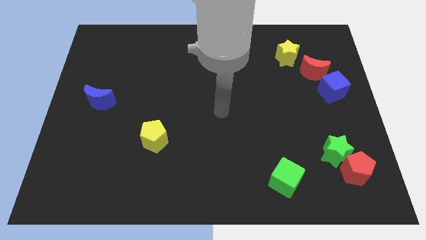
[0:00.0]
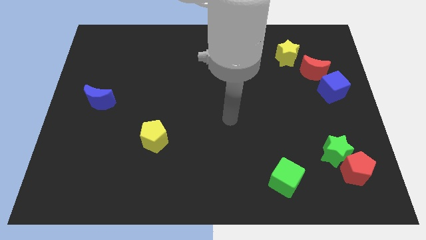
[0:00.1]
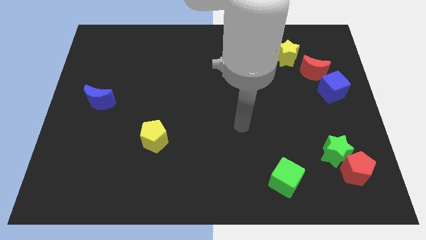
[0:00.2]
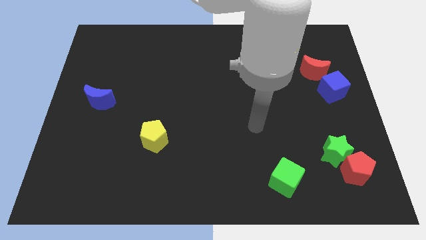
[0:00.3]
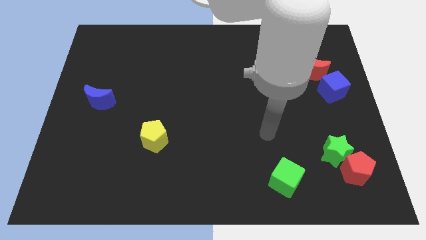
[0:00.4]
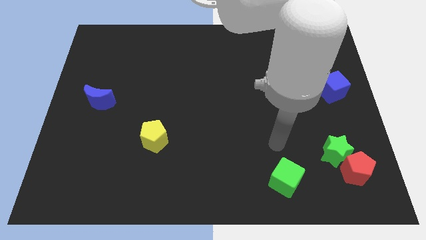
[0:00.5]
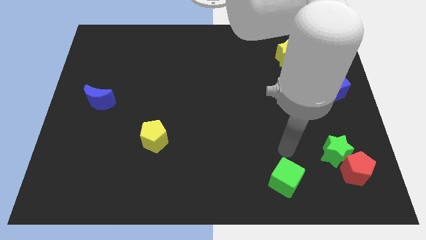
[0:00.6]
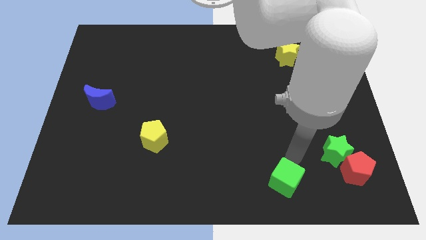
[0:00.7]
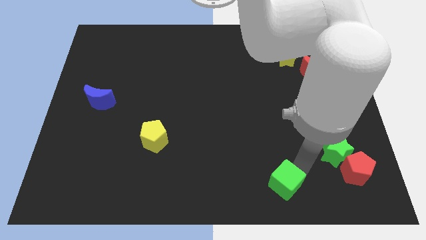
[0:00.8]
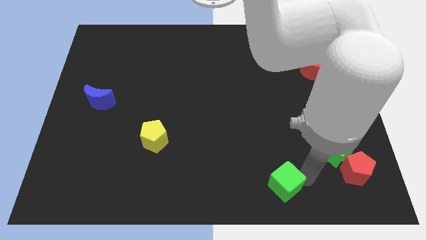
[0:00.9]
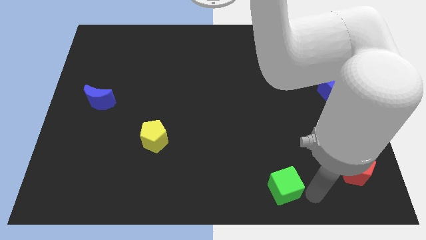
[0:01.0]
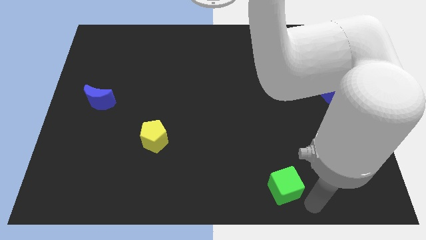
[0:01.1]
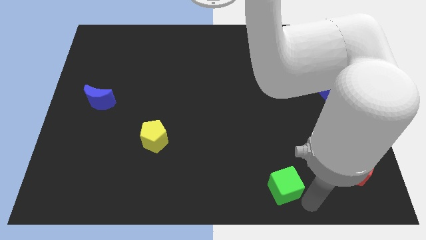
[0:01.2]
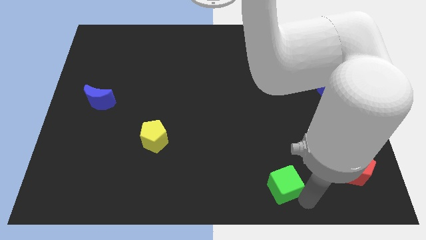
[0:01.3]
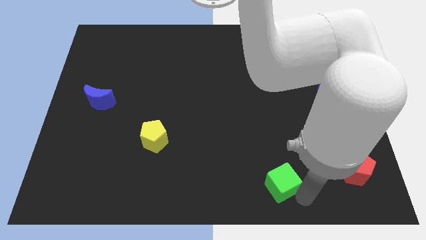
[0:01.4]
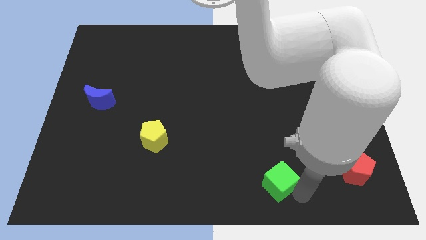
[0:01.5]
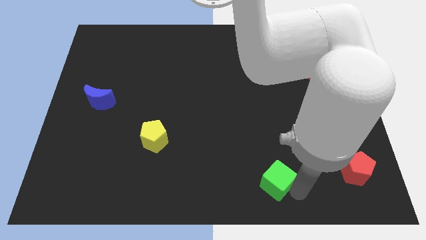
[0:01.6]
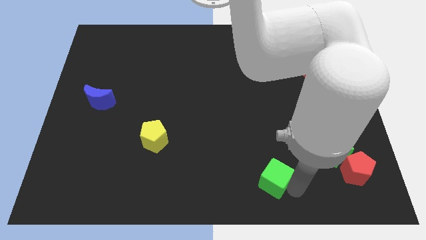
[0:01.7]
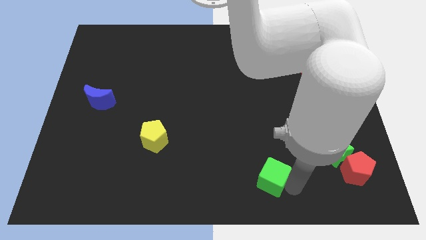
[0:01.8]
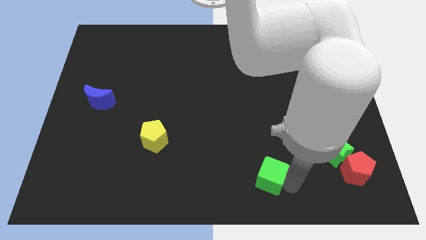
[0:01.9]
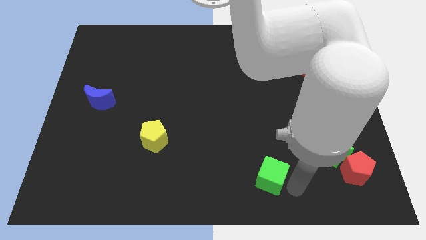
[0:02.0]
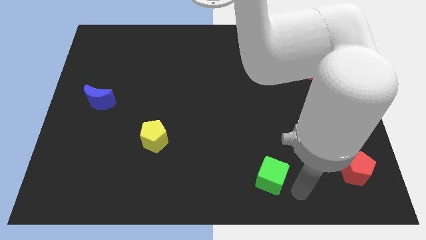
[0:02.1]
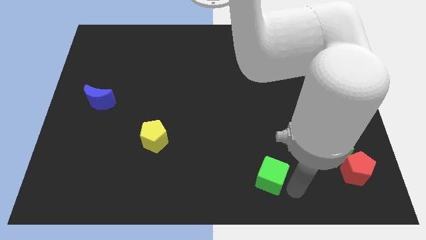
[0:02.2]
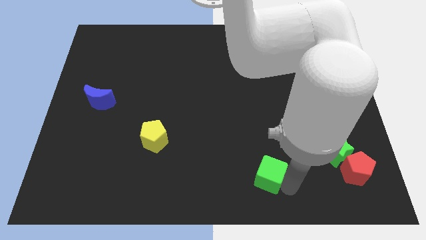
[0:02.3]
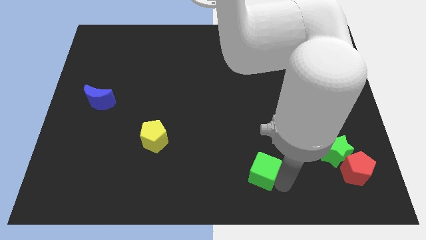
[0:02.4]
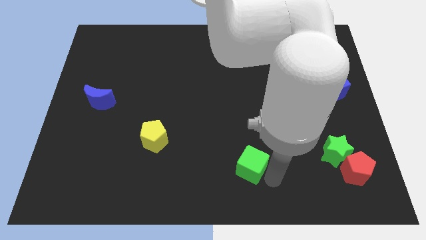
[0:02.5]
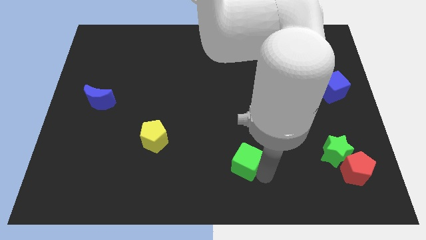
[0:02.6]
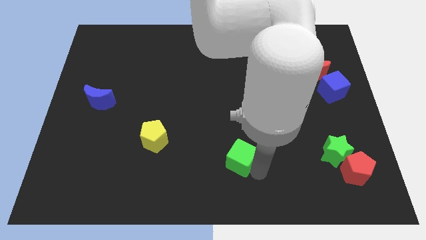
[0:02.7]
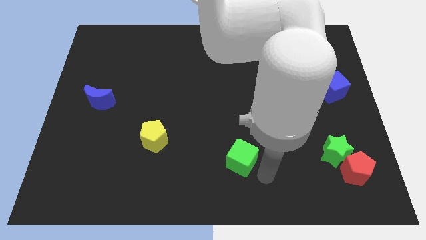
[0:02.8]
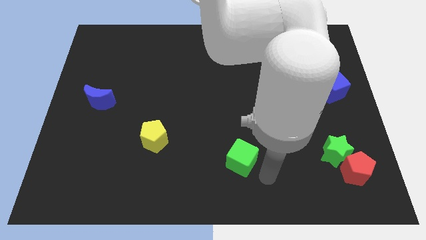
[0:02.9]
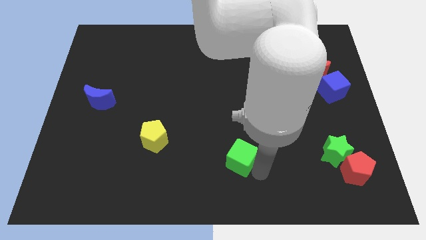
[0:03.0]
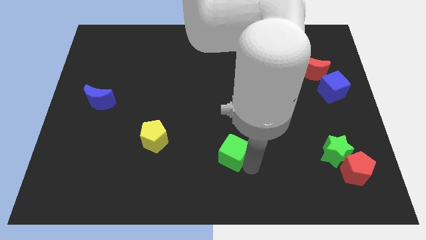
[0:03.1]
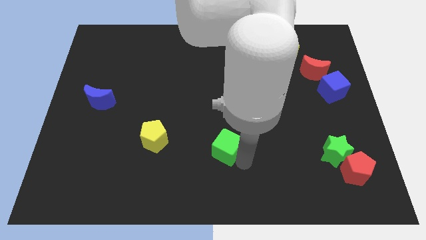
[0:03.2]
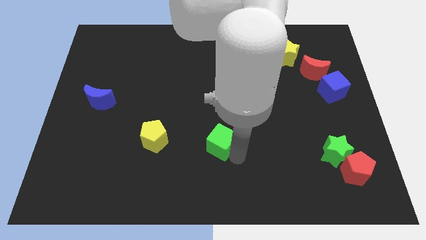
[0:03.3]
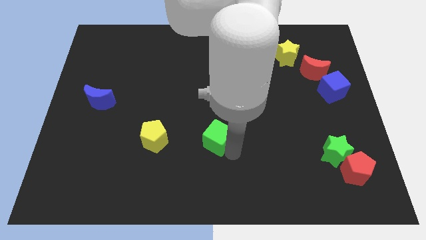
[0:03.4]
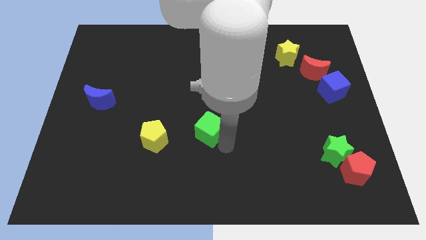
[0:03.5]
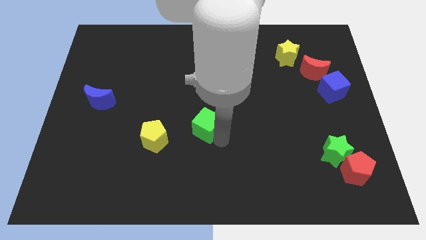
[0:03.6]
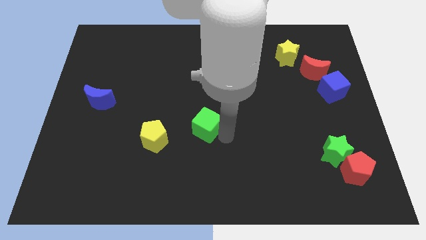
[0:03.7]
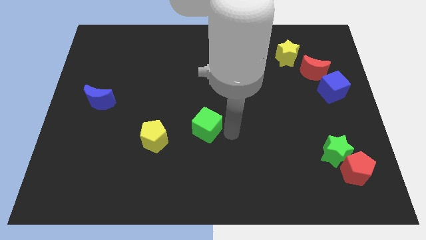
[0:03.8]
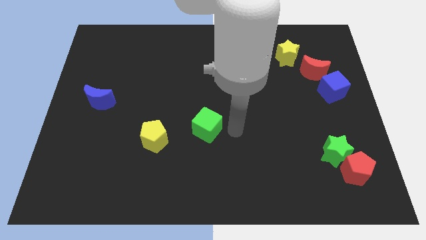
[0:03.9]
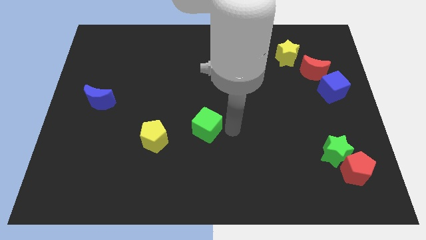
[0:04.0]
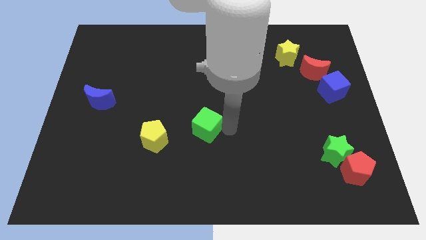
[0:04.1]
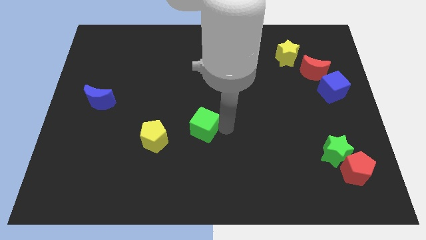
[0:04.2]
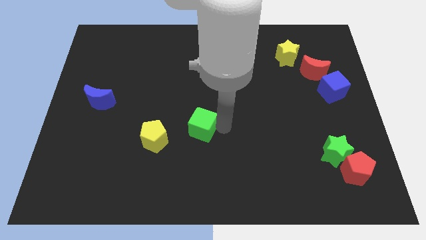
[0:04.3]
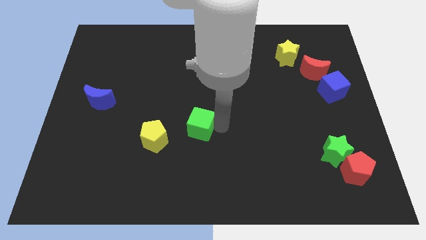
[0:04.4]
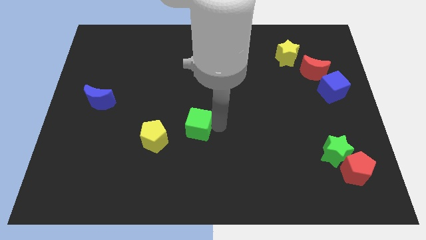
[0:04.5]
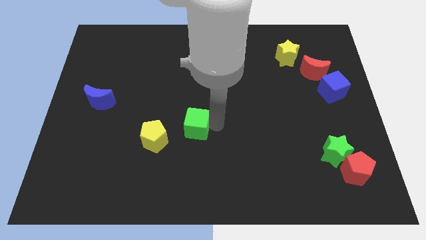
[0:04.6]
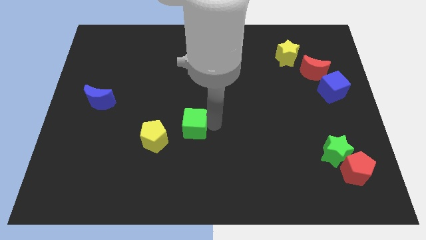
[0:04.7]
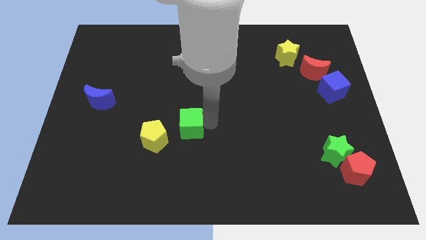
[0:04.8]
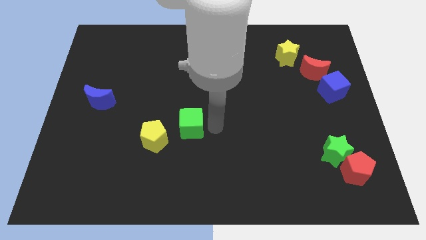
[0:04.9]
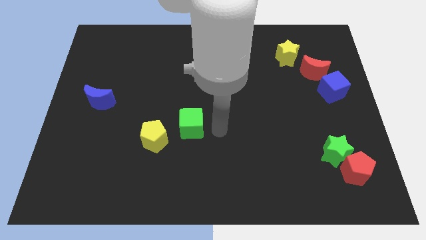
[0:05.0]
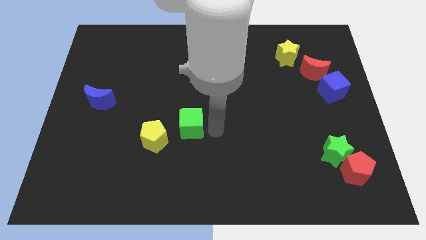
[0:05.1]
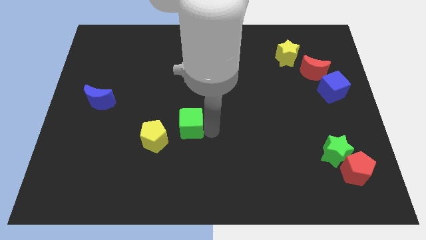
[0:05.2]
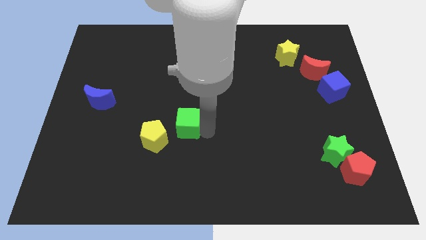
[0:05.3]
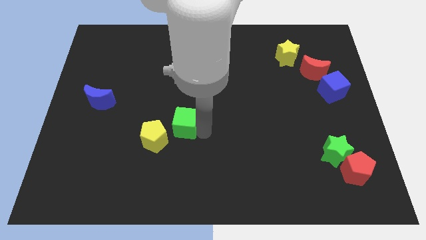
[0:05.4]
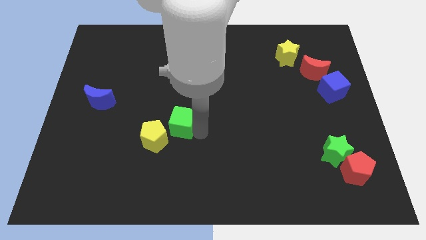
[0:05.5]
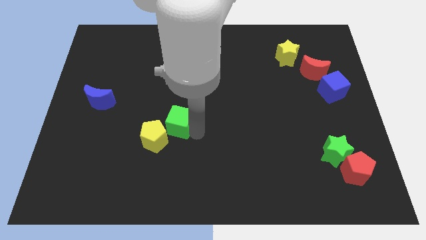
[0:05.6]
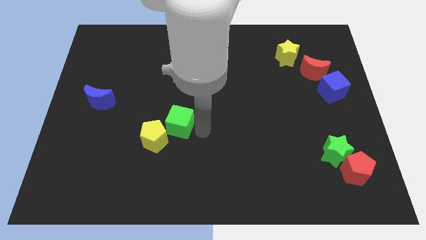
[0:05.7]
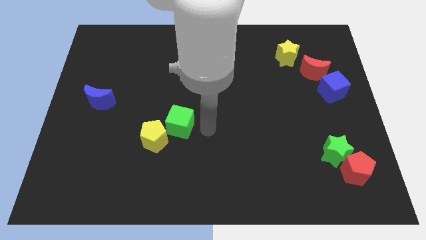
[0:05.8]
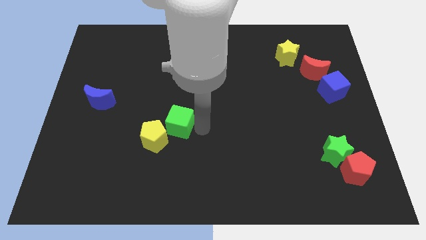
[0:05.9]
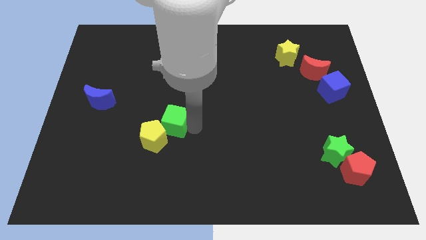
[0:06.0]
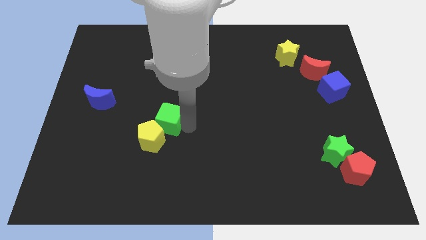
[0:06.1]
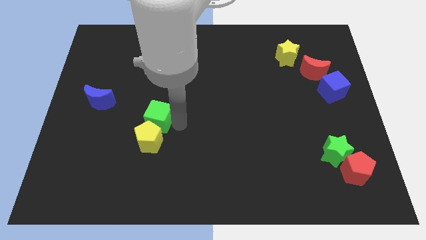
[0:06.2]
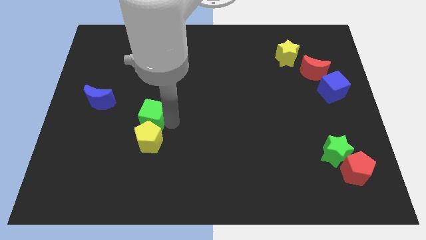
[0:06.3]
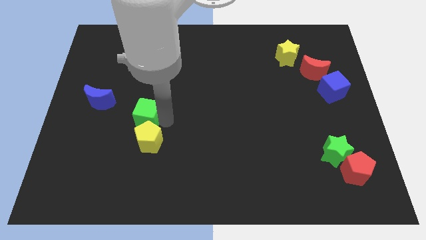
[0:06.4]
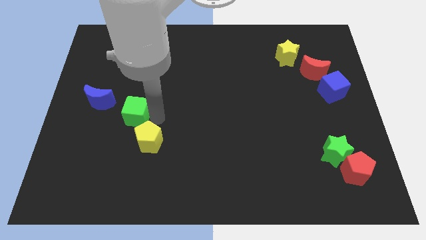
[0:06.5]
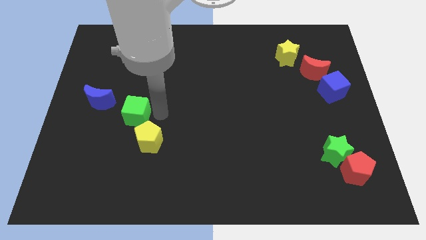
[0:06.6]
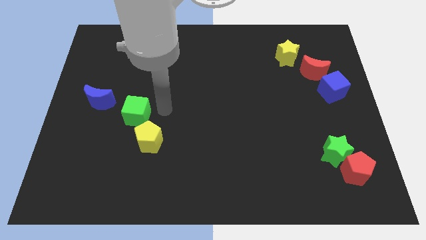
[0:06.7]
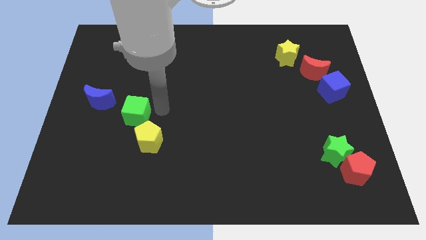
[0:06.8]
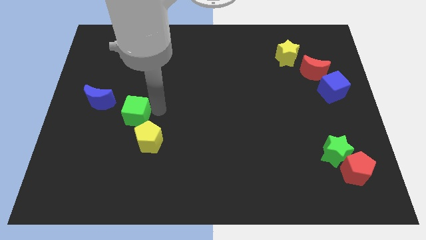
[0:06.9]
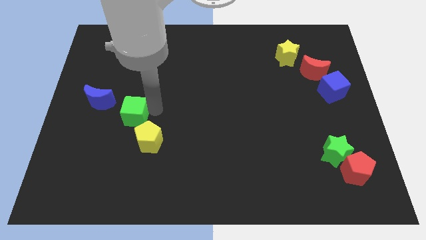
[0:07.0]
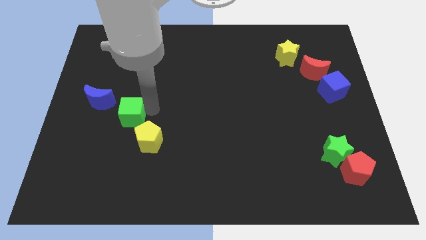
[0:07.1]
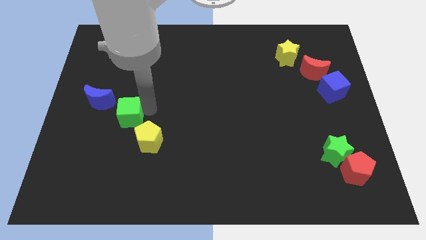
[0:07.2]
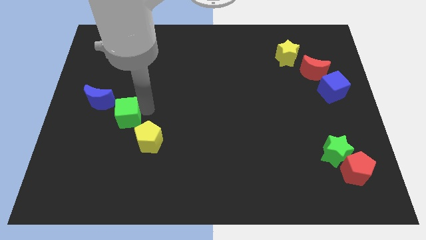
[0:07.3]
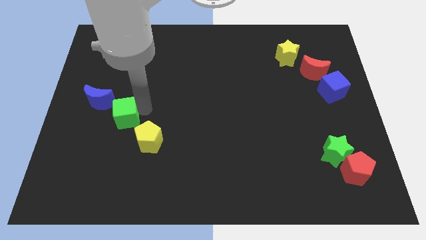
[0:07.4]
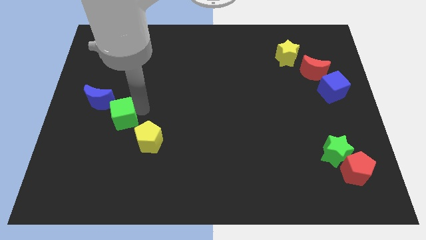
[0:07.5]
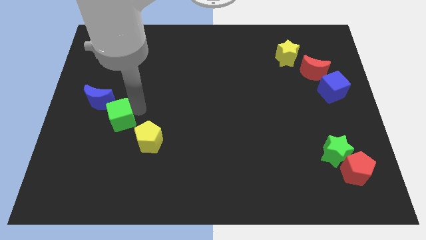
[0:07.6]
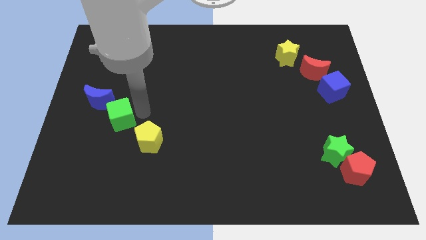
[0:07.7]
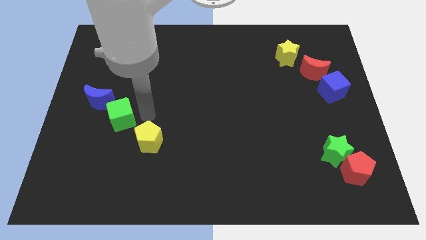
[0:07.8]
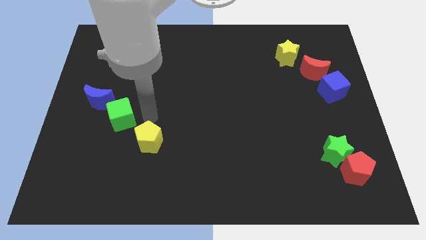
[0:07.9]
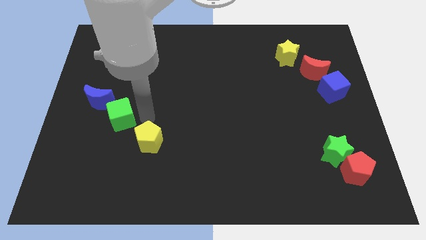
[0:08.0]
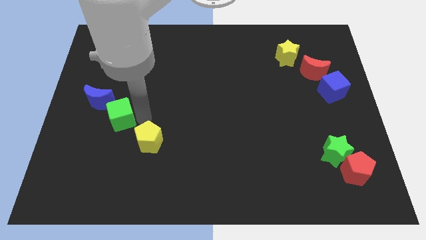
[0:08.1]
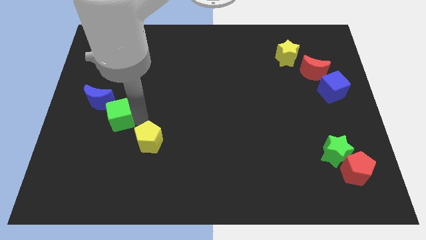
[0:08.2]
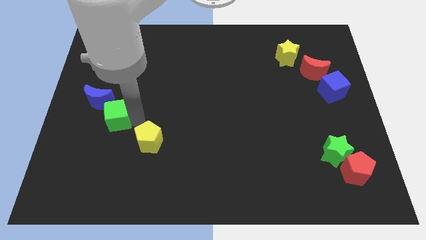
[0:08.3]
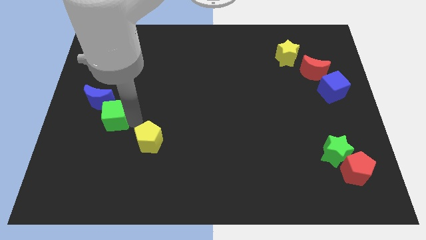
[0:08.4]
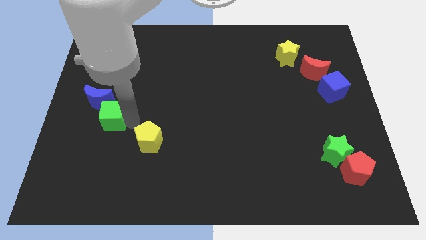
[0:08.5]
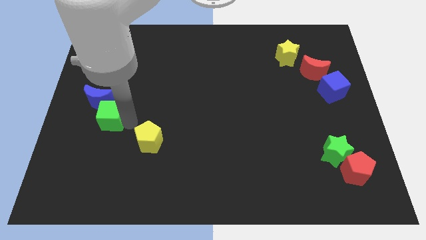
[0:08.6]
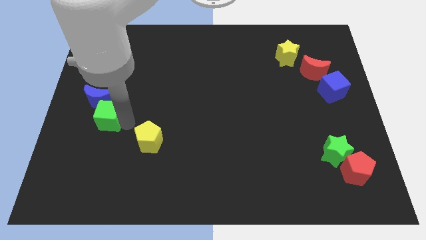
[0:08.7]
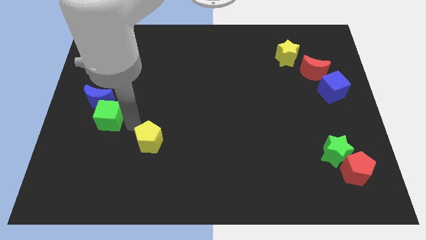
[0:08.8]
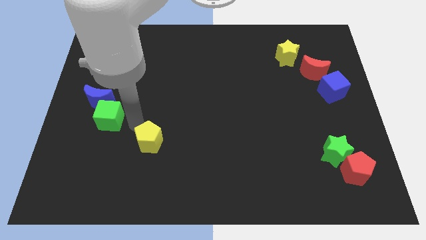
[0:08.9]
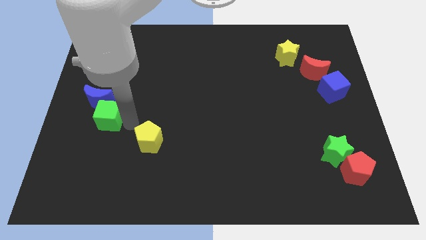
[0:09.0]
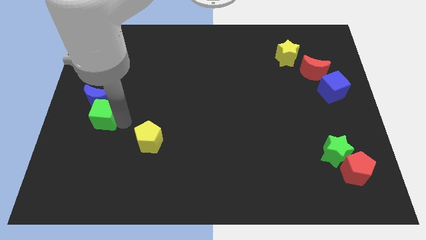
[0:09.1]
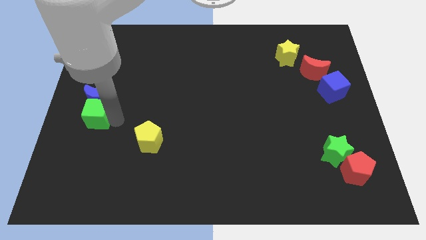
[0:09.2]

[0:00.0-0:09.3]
move the green cube to the left side
